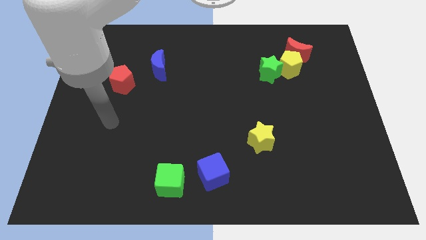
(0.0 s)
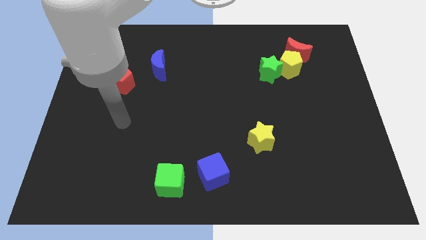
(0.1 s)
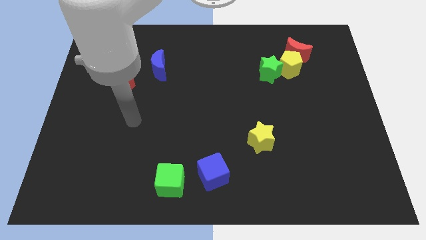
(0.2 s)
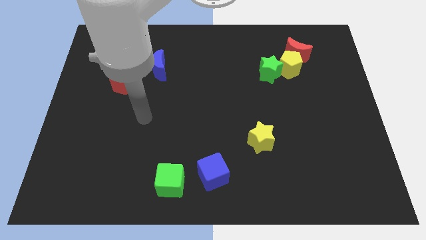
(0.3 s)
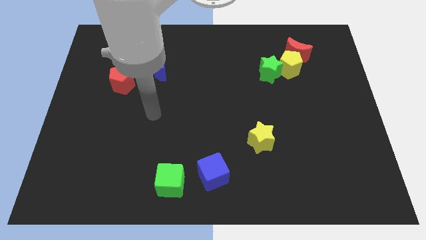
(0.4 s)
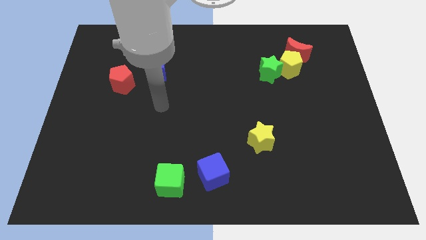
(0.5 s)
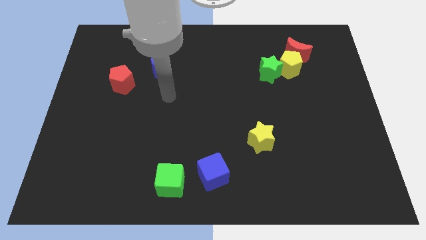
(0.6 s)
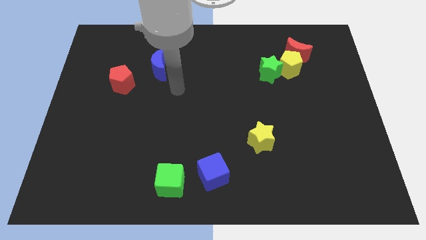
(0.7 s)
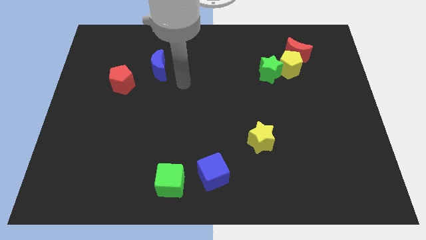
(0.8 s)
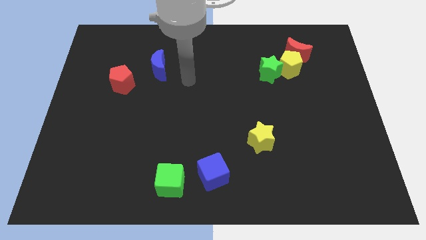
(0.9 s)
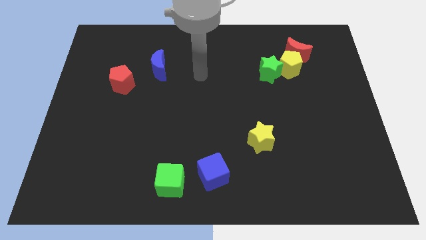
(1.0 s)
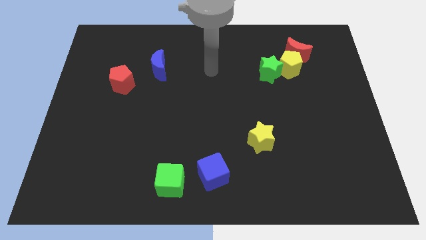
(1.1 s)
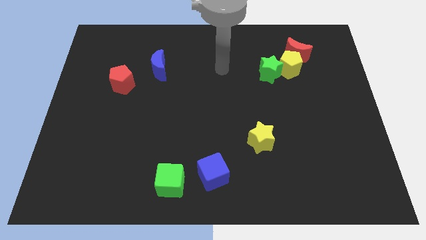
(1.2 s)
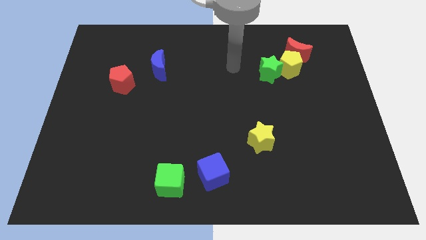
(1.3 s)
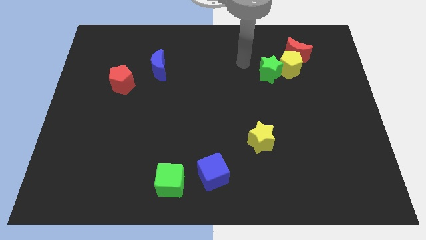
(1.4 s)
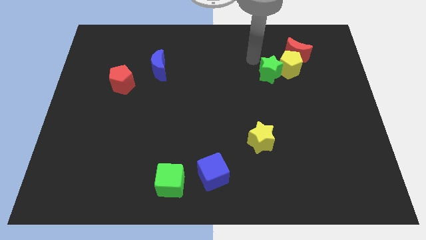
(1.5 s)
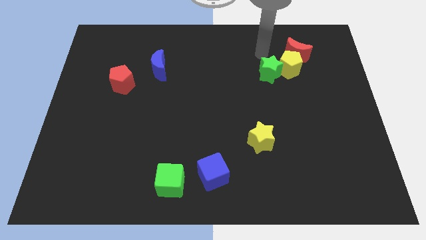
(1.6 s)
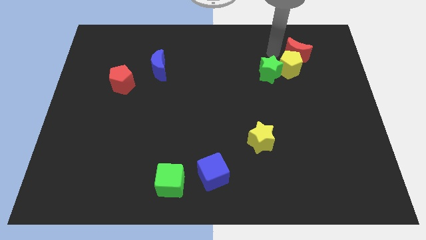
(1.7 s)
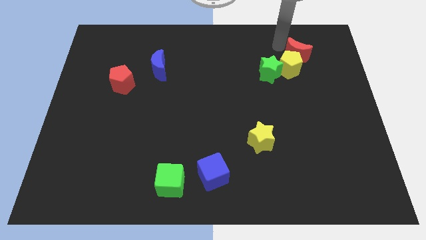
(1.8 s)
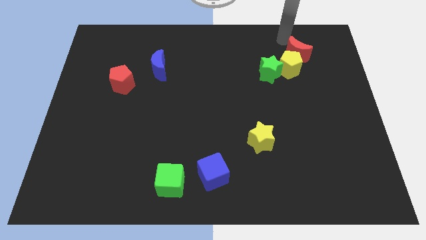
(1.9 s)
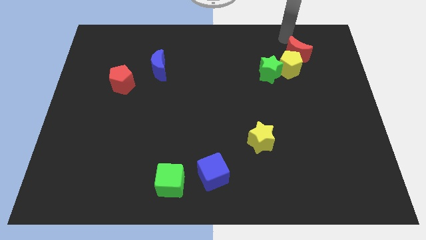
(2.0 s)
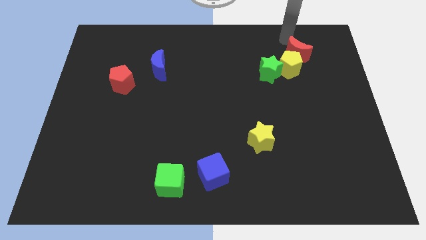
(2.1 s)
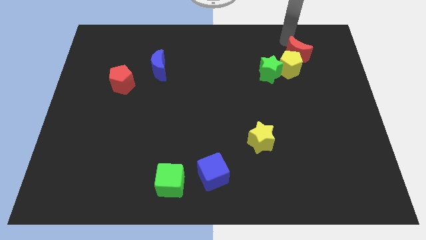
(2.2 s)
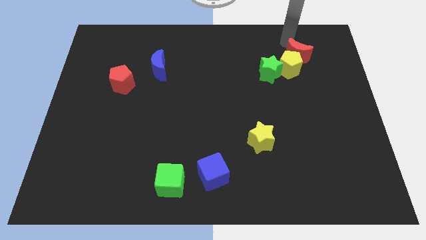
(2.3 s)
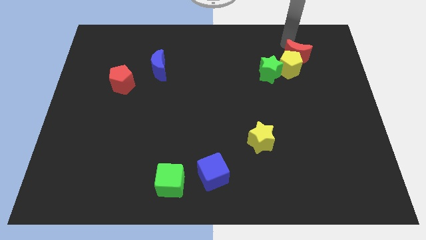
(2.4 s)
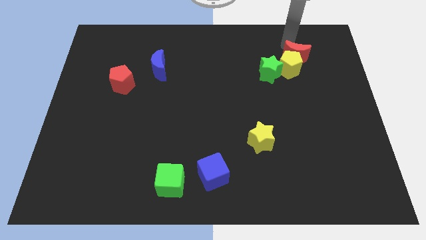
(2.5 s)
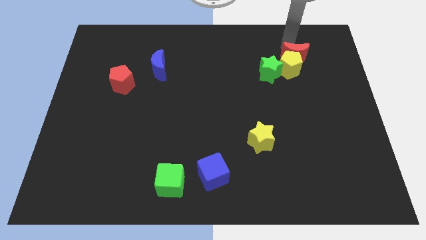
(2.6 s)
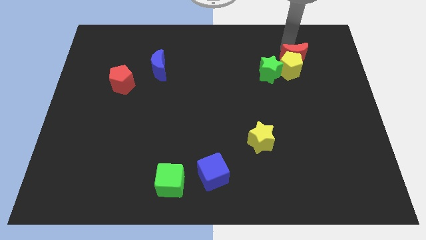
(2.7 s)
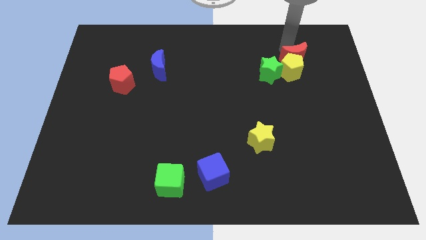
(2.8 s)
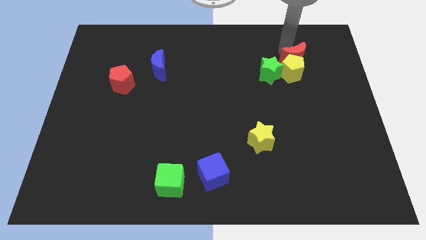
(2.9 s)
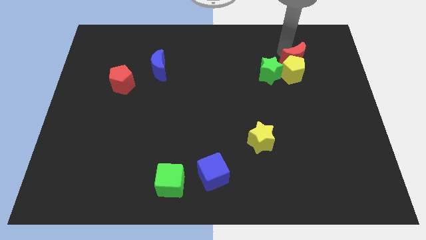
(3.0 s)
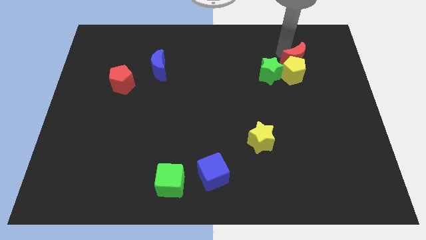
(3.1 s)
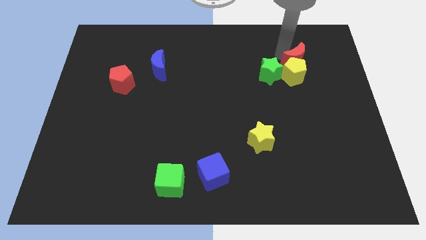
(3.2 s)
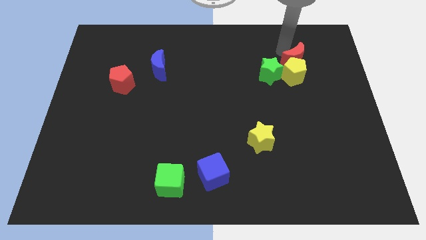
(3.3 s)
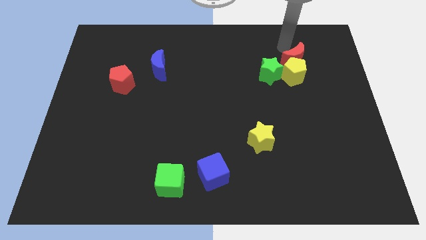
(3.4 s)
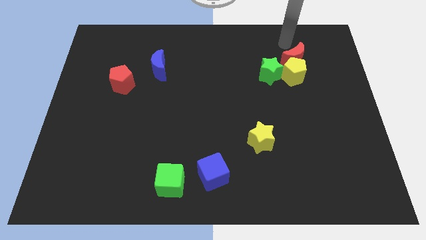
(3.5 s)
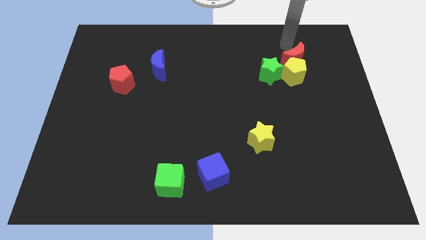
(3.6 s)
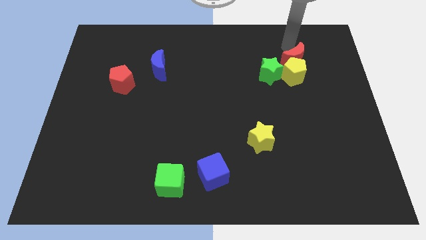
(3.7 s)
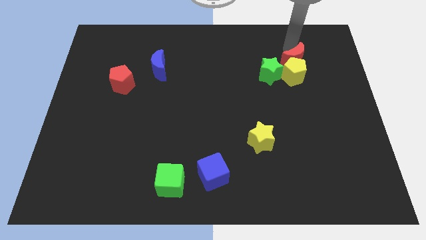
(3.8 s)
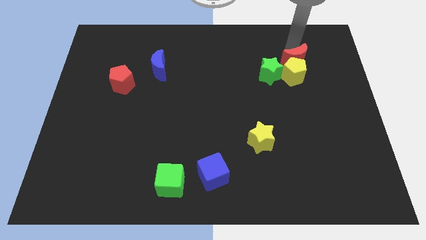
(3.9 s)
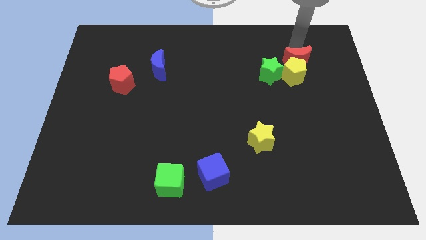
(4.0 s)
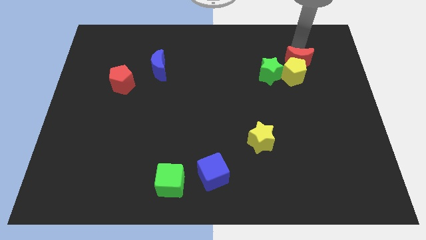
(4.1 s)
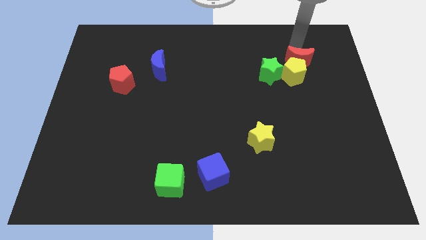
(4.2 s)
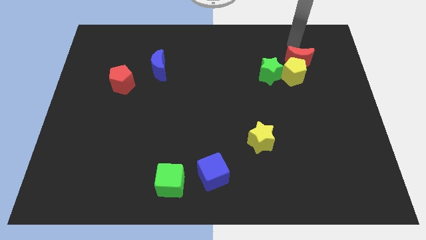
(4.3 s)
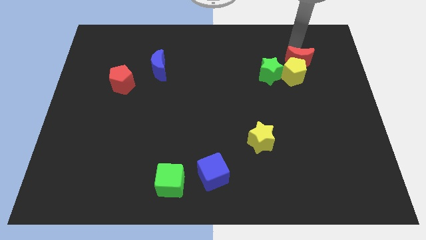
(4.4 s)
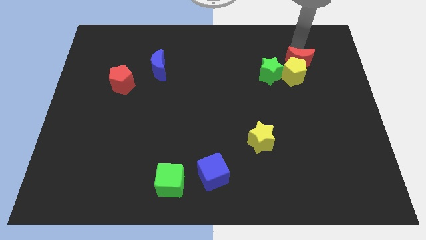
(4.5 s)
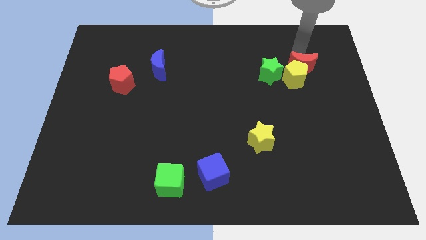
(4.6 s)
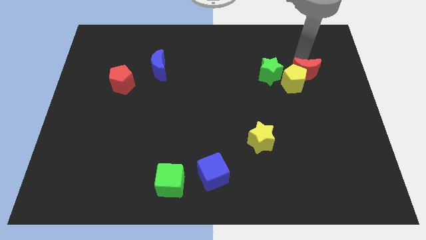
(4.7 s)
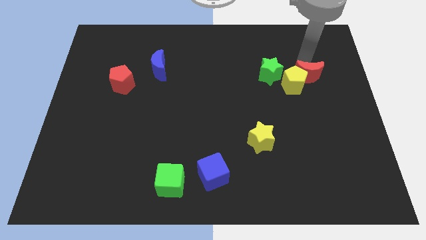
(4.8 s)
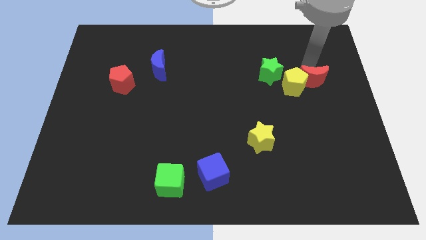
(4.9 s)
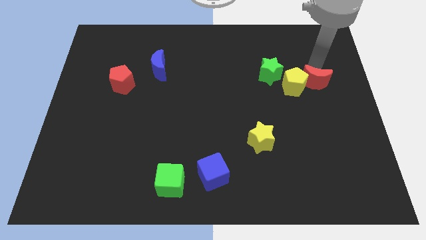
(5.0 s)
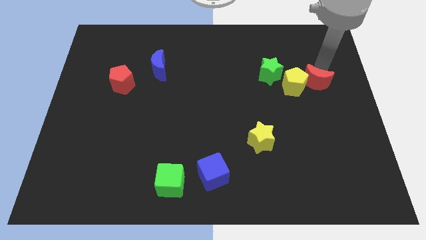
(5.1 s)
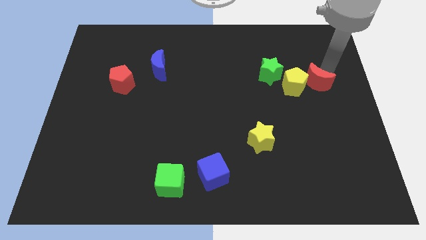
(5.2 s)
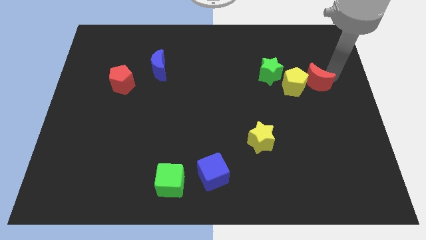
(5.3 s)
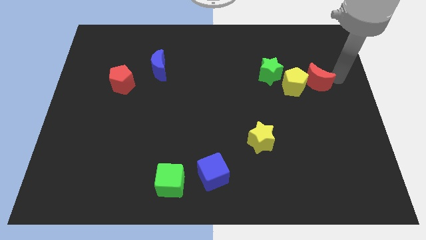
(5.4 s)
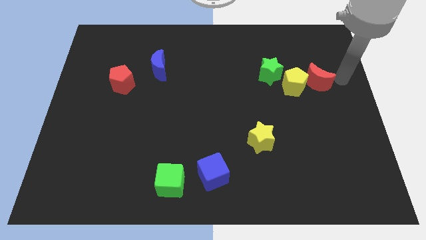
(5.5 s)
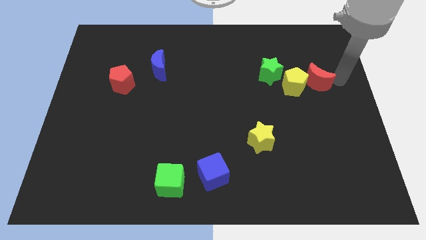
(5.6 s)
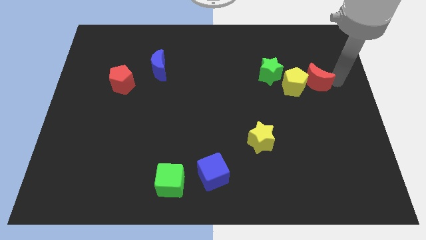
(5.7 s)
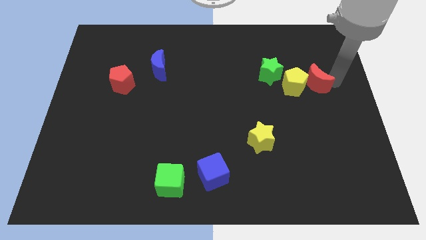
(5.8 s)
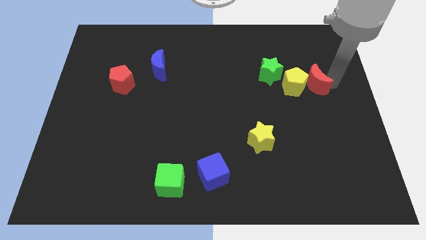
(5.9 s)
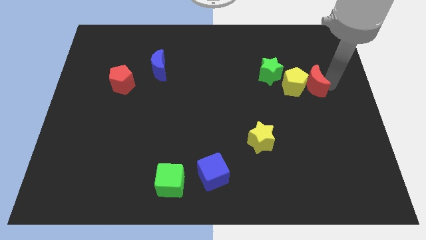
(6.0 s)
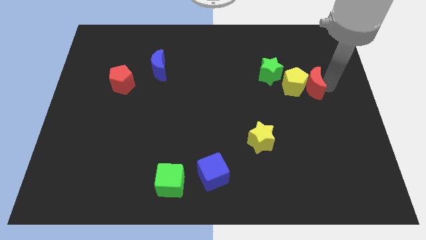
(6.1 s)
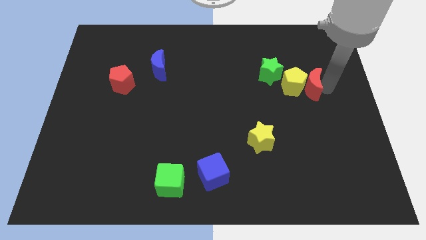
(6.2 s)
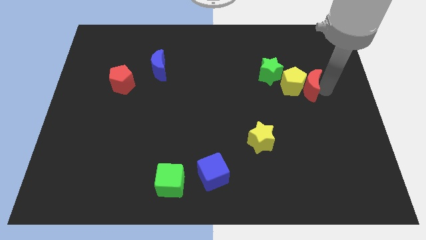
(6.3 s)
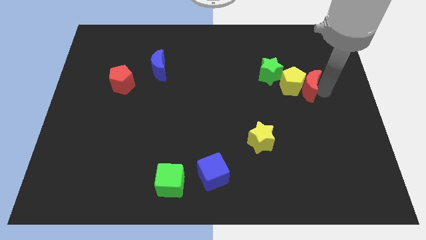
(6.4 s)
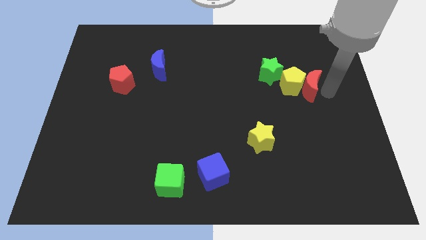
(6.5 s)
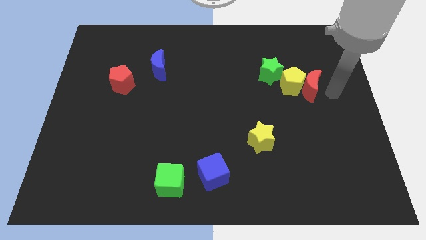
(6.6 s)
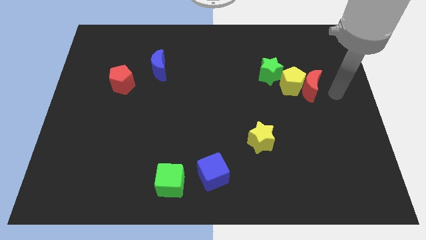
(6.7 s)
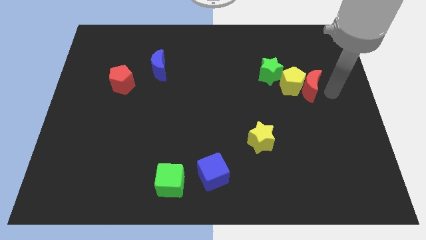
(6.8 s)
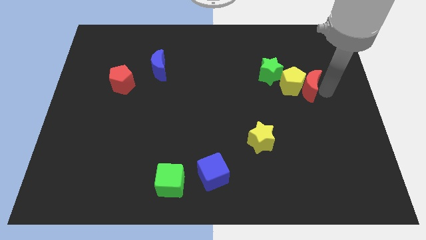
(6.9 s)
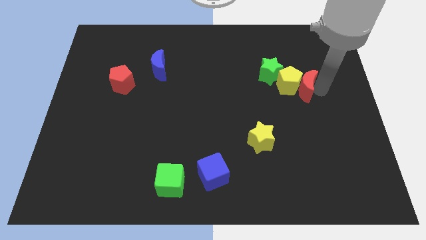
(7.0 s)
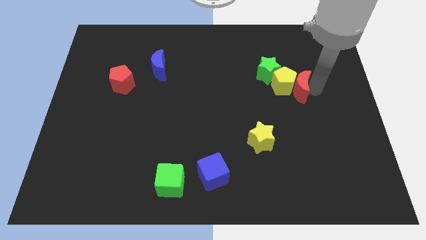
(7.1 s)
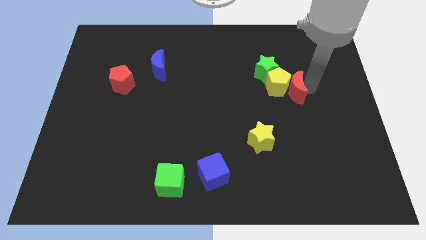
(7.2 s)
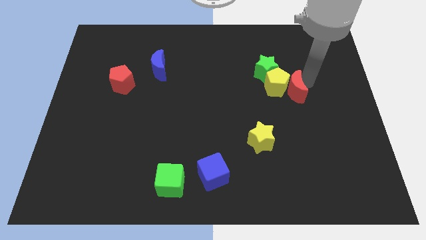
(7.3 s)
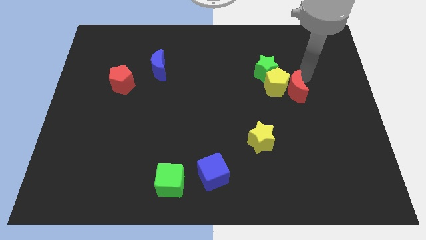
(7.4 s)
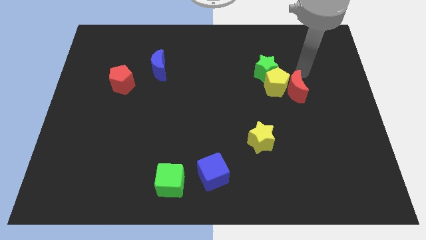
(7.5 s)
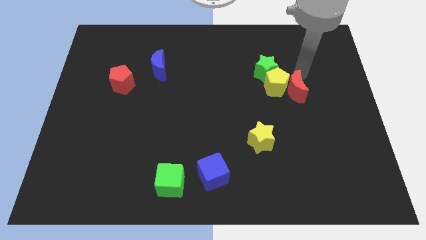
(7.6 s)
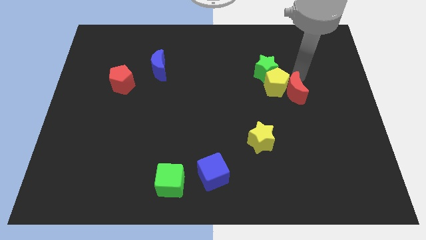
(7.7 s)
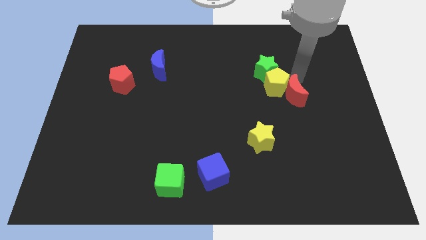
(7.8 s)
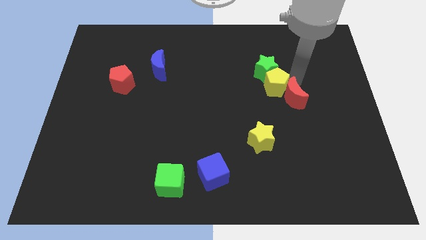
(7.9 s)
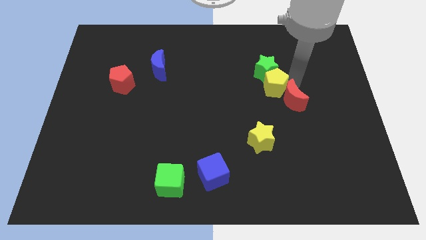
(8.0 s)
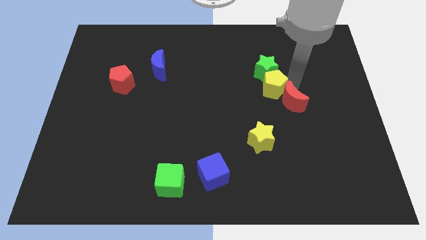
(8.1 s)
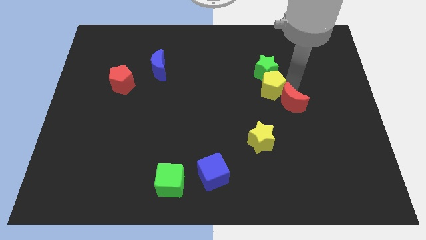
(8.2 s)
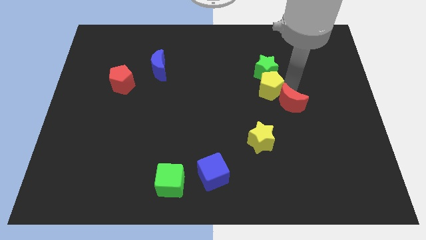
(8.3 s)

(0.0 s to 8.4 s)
slide the red moon diagonally up and to the right of the yellow star
